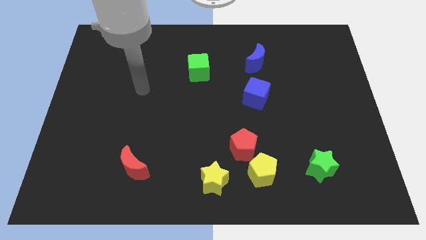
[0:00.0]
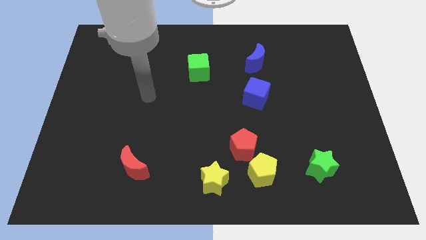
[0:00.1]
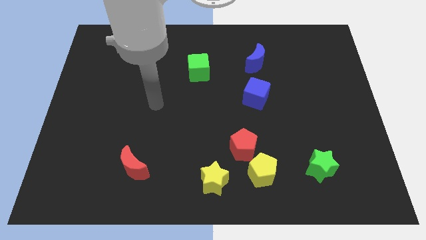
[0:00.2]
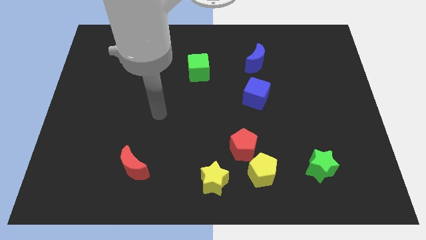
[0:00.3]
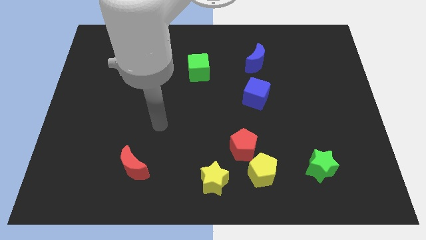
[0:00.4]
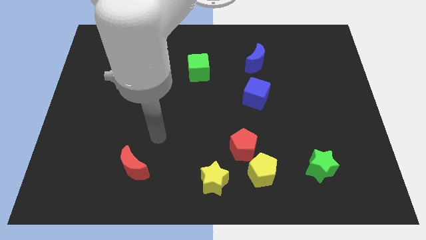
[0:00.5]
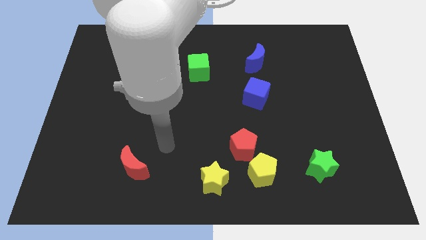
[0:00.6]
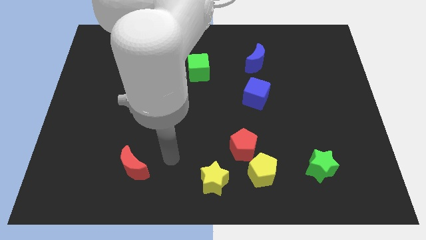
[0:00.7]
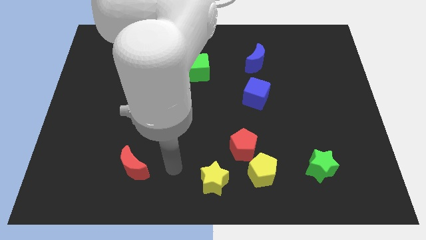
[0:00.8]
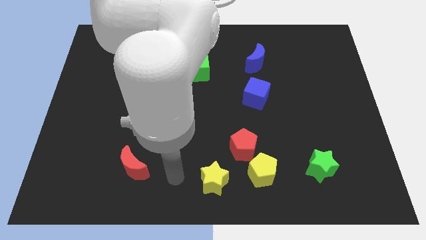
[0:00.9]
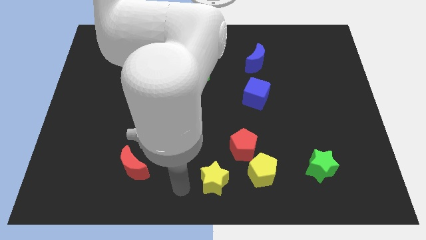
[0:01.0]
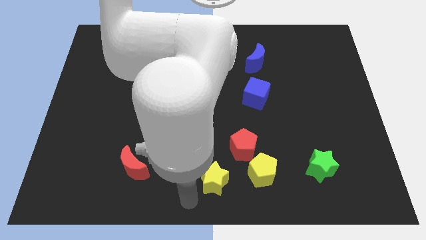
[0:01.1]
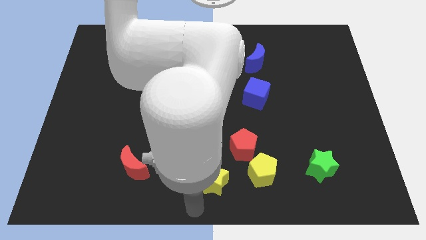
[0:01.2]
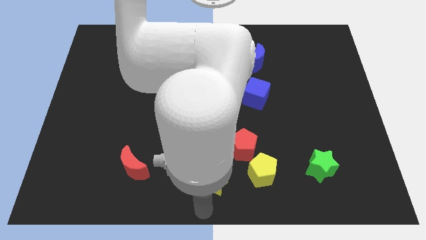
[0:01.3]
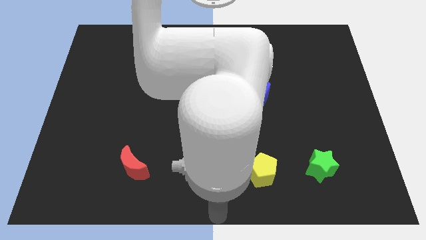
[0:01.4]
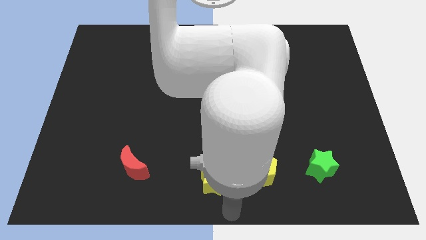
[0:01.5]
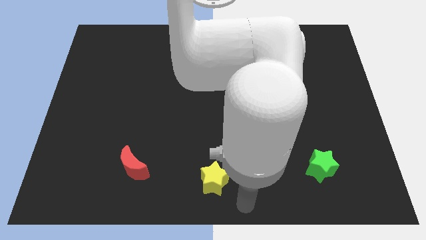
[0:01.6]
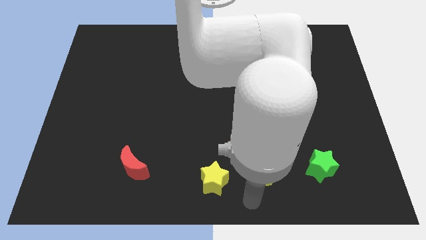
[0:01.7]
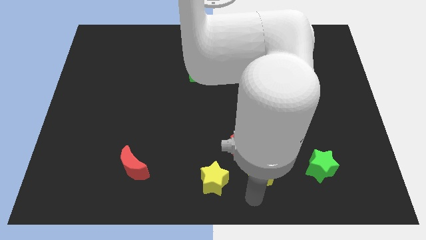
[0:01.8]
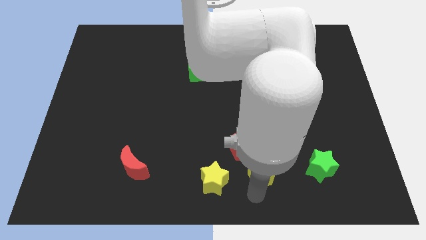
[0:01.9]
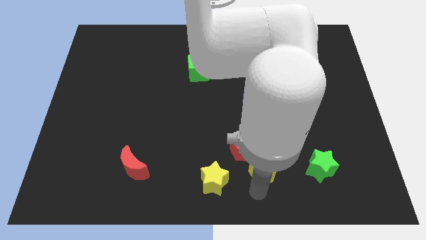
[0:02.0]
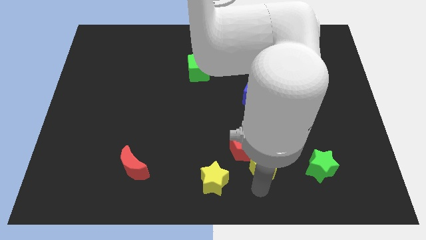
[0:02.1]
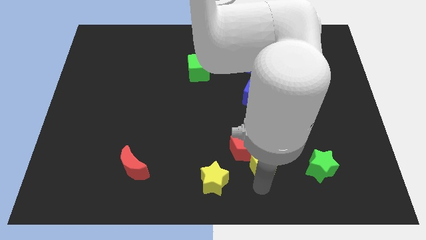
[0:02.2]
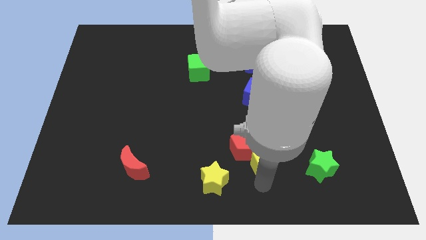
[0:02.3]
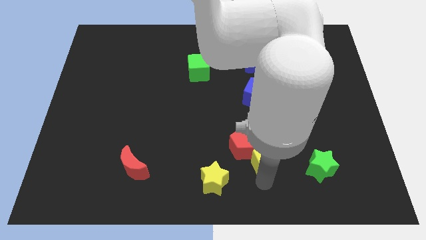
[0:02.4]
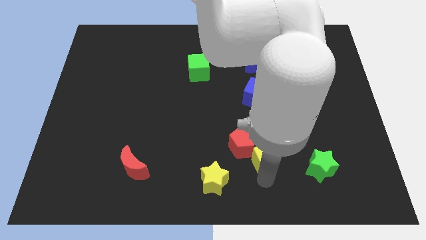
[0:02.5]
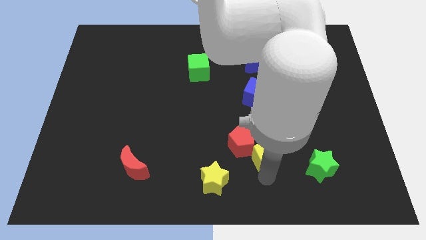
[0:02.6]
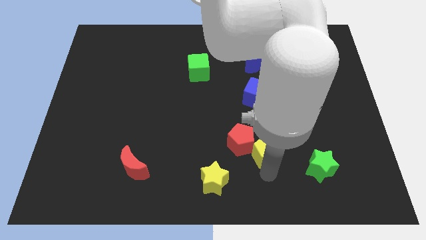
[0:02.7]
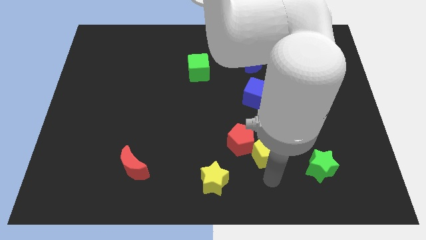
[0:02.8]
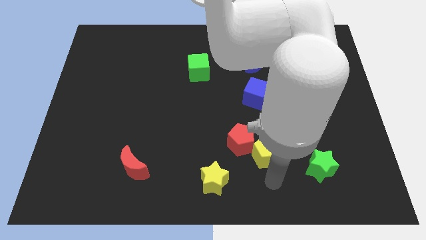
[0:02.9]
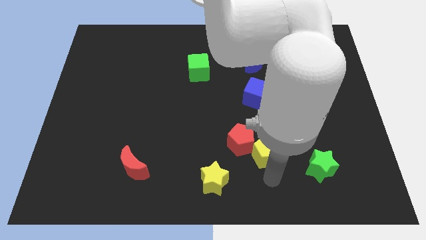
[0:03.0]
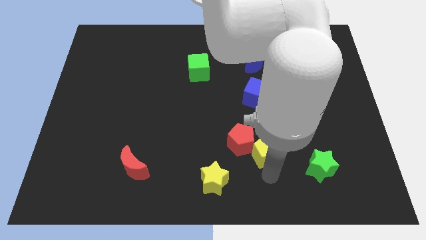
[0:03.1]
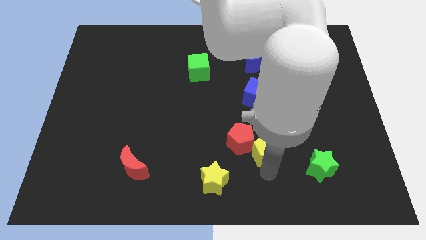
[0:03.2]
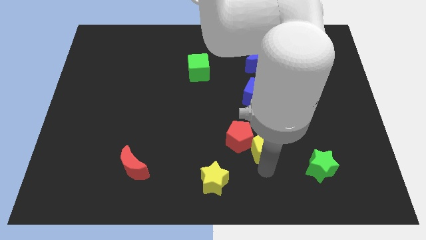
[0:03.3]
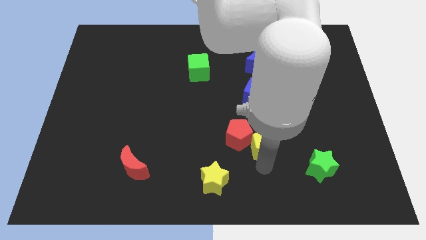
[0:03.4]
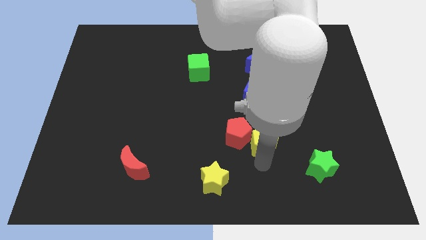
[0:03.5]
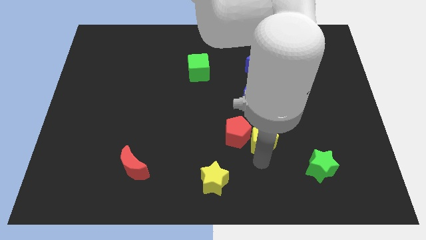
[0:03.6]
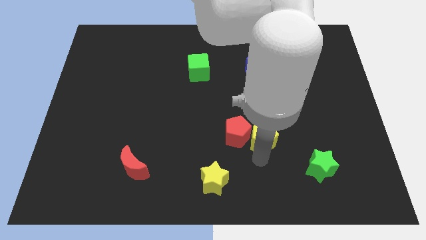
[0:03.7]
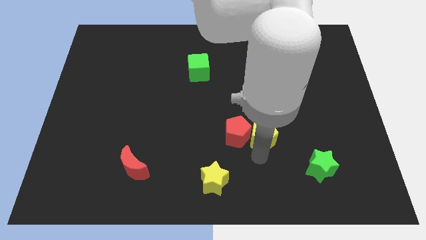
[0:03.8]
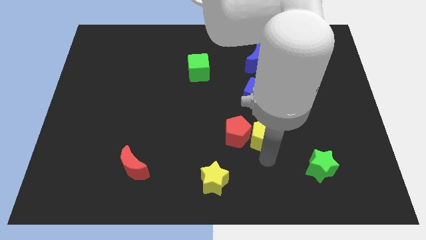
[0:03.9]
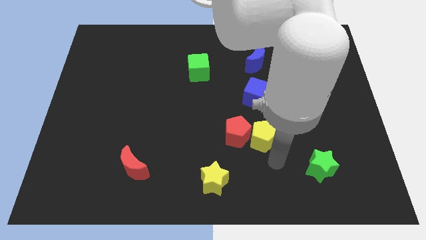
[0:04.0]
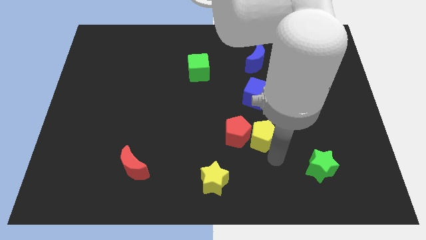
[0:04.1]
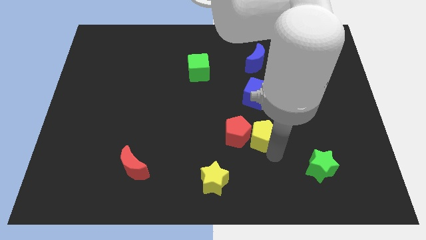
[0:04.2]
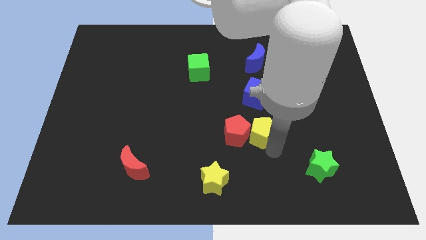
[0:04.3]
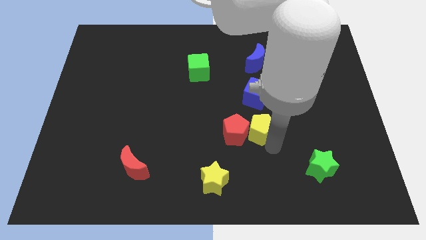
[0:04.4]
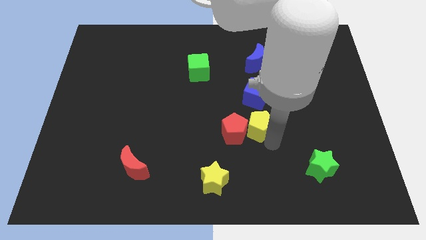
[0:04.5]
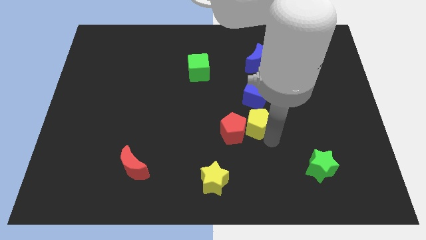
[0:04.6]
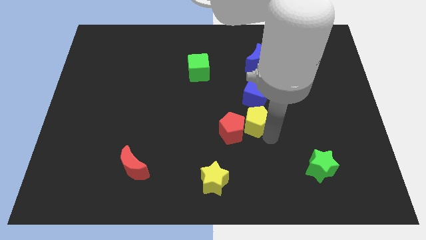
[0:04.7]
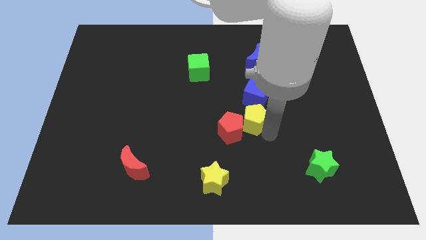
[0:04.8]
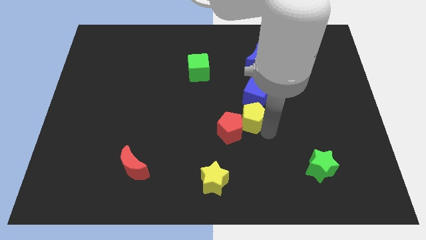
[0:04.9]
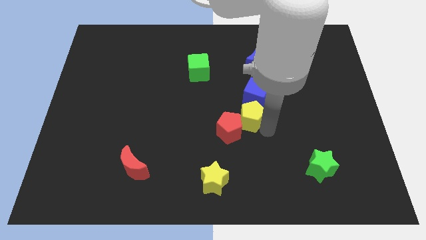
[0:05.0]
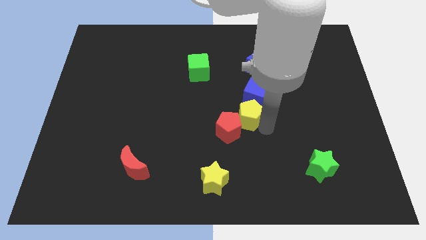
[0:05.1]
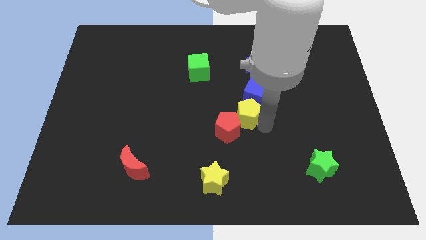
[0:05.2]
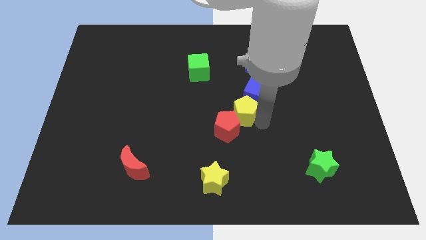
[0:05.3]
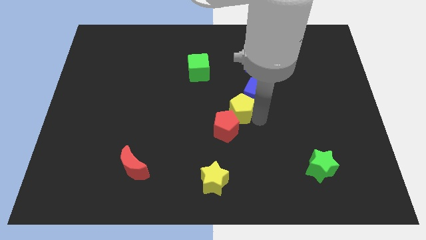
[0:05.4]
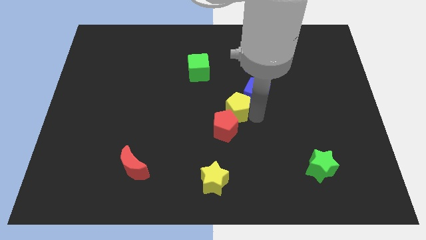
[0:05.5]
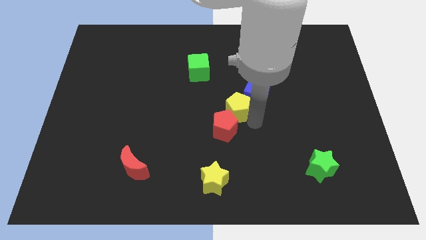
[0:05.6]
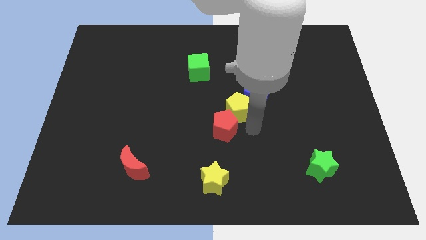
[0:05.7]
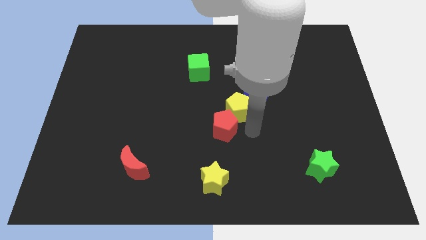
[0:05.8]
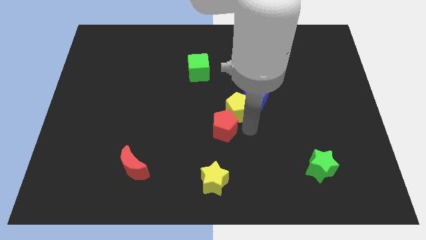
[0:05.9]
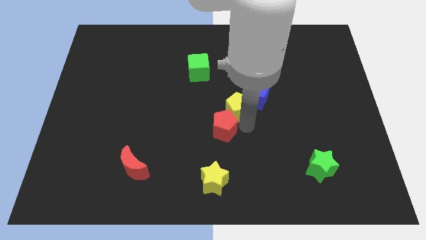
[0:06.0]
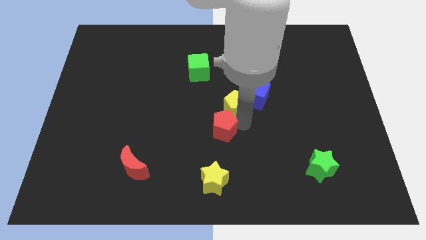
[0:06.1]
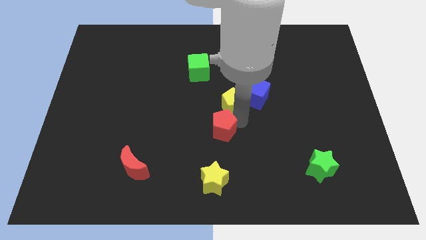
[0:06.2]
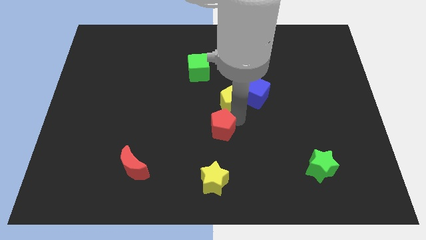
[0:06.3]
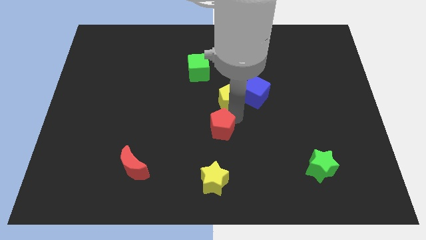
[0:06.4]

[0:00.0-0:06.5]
push the yellow pentagon to the bottom right side of the green cube
